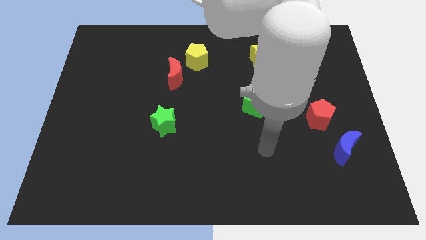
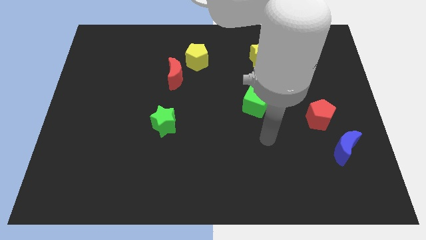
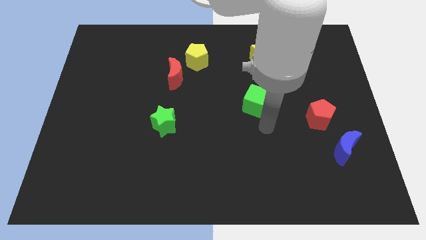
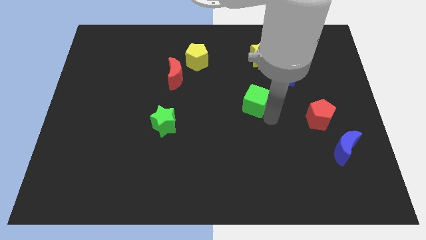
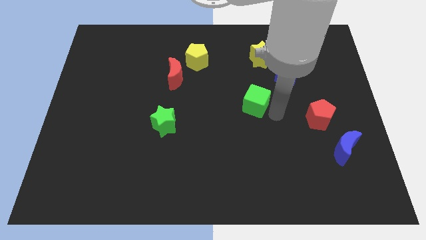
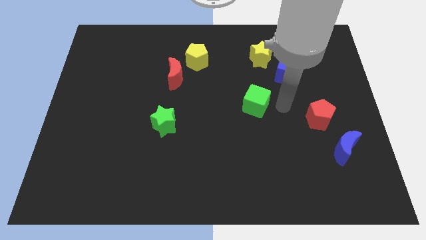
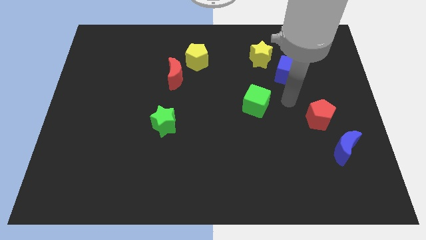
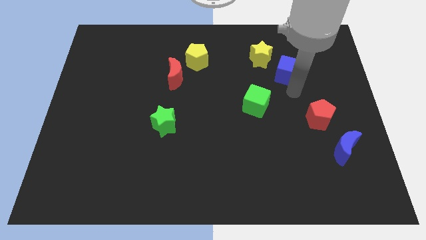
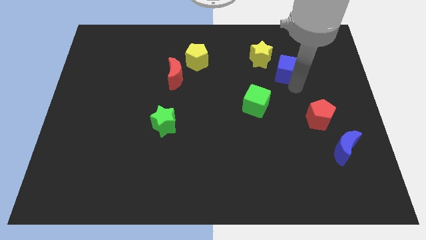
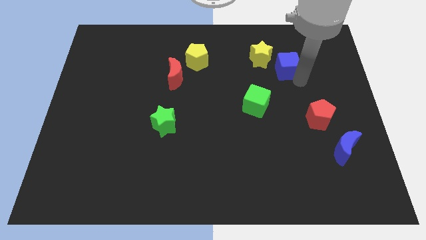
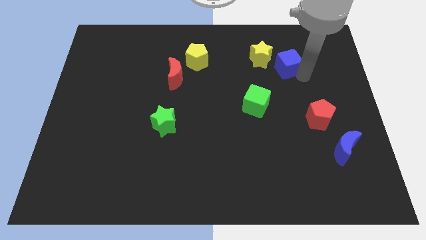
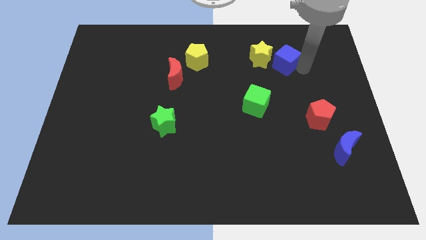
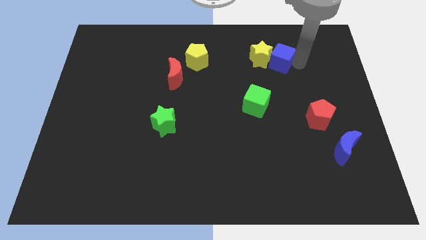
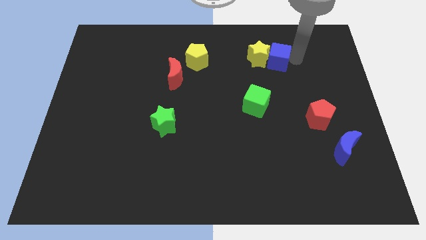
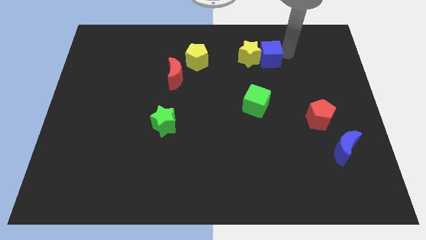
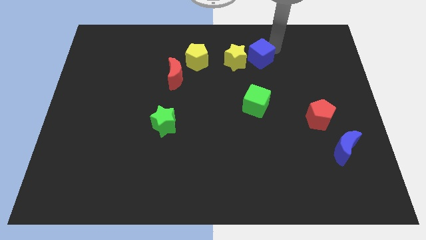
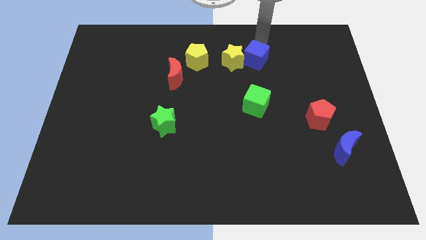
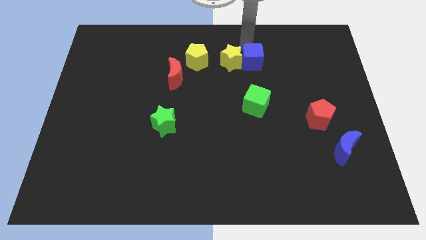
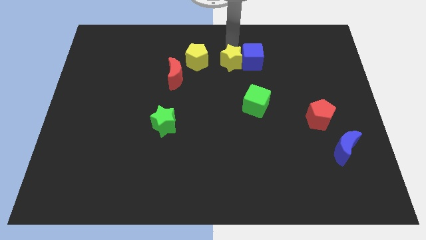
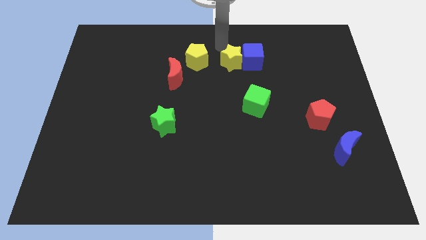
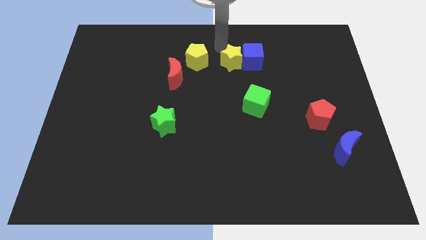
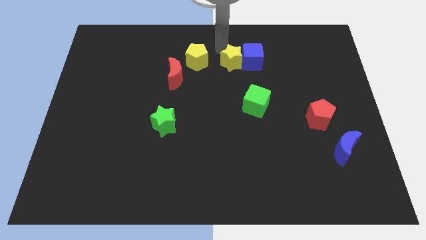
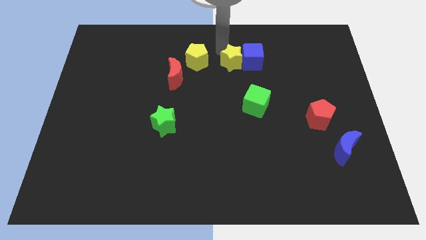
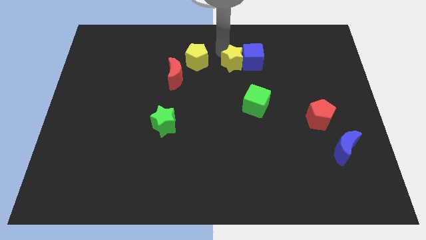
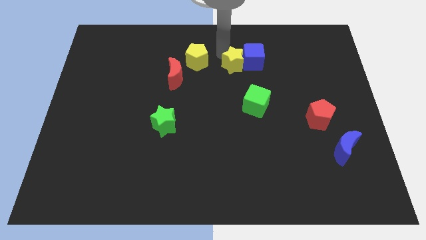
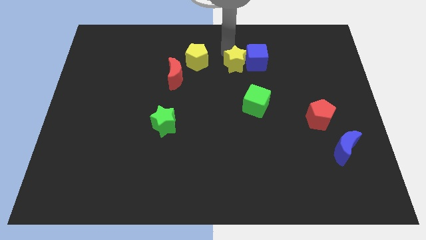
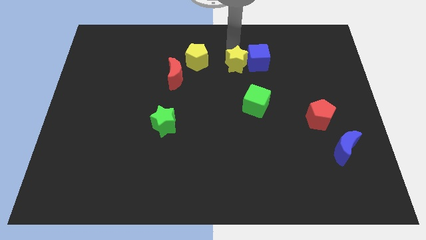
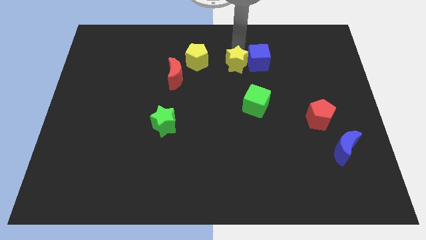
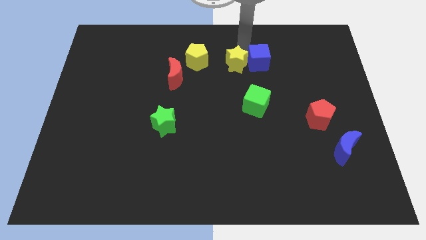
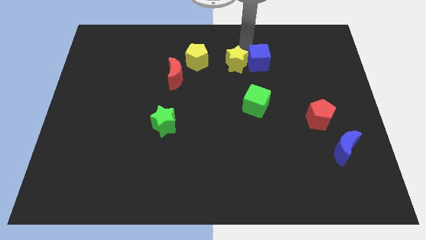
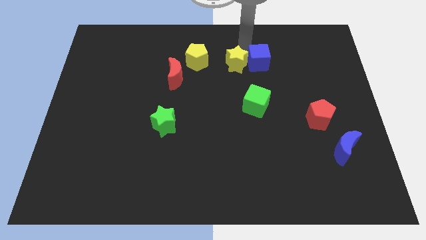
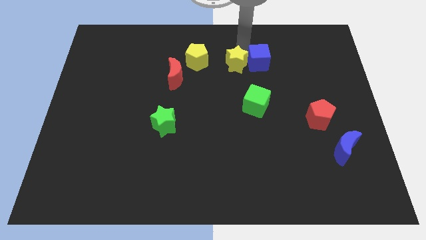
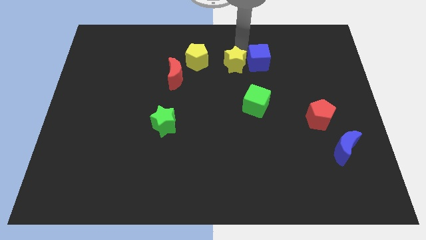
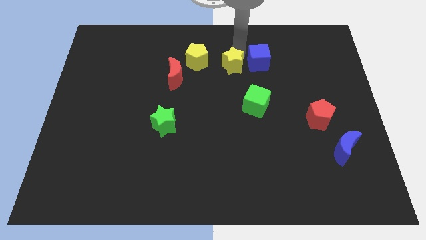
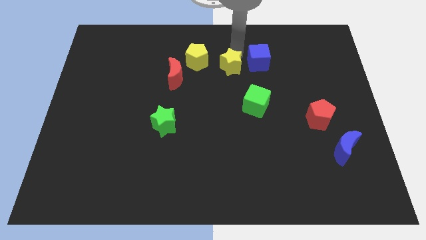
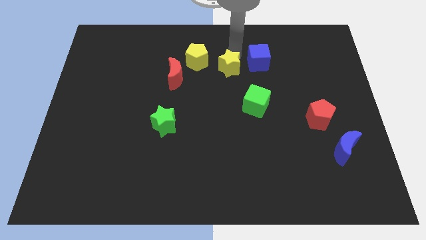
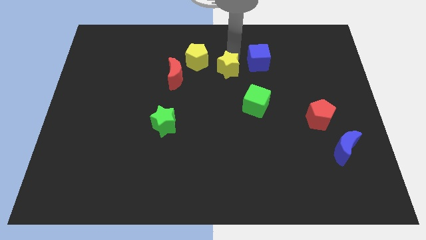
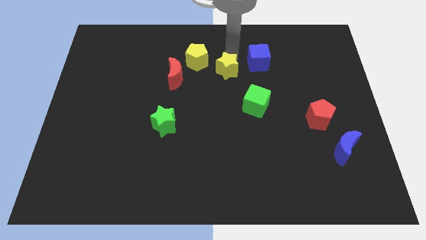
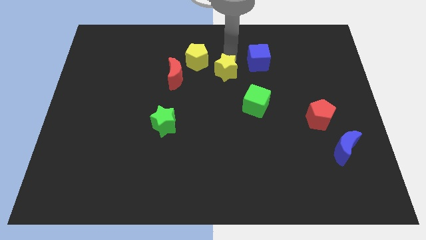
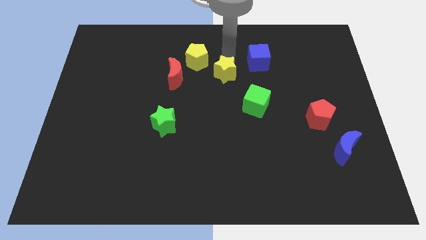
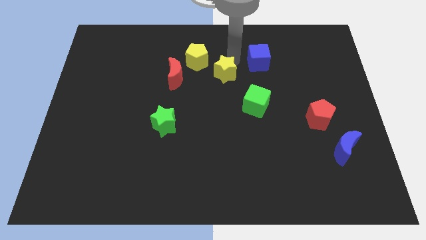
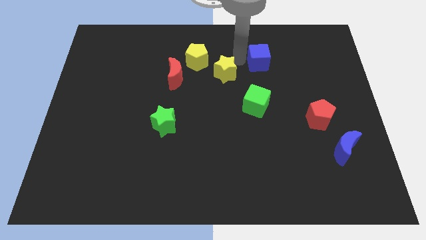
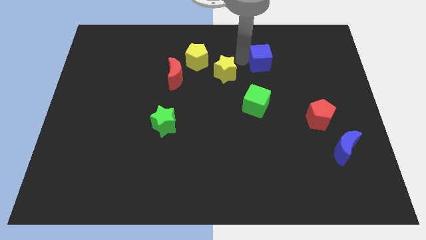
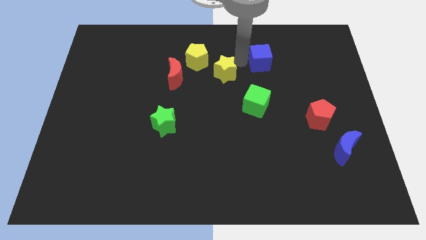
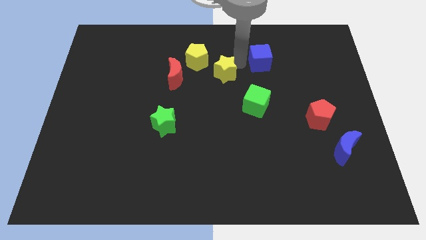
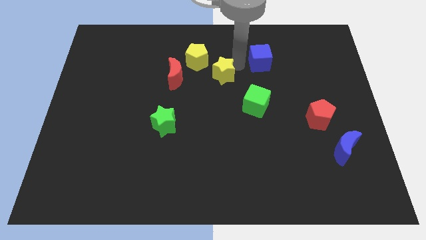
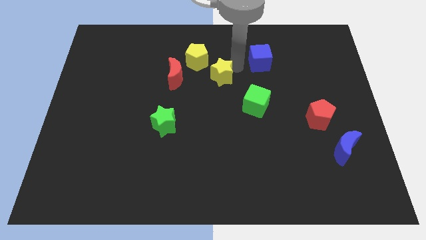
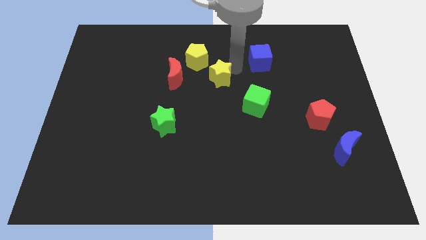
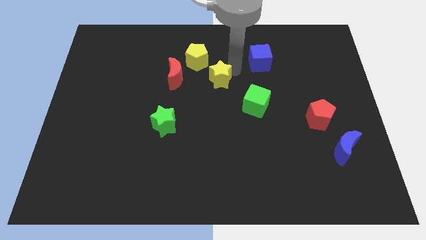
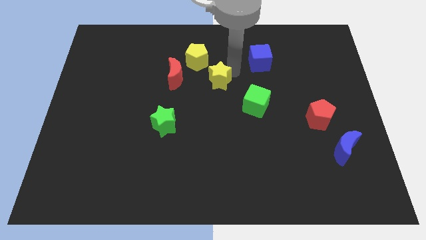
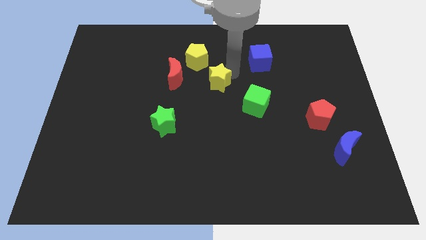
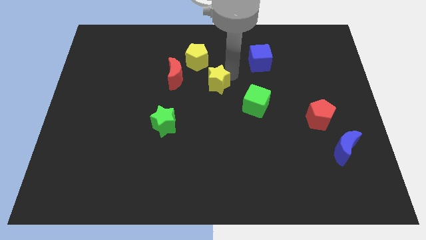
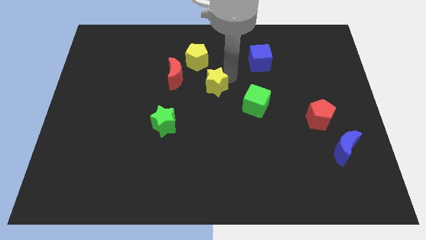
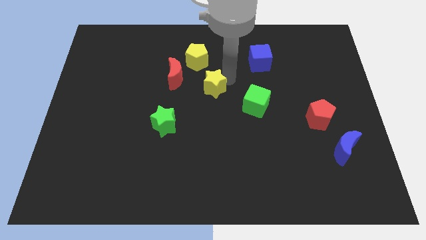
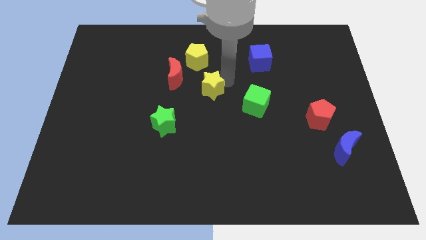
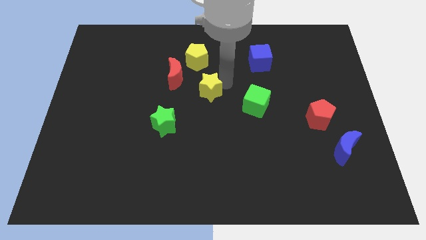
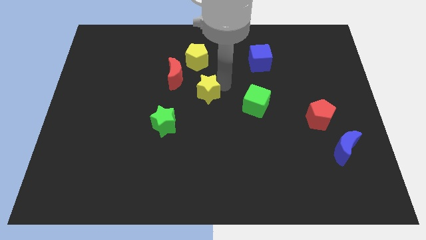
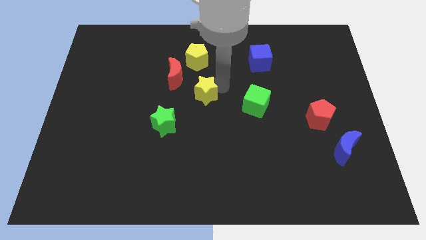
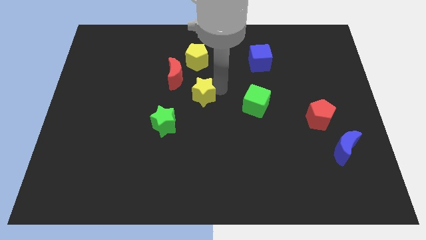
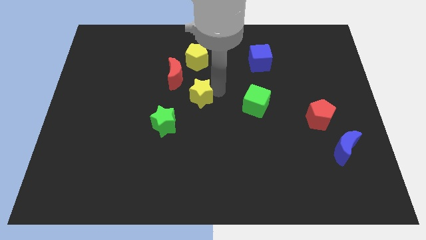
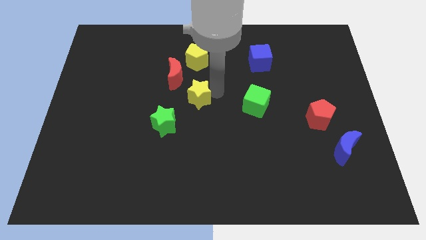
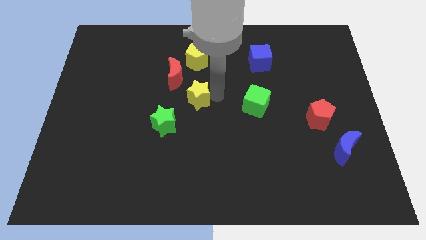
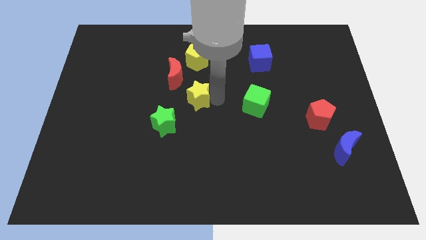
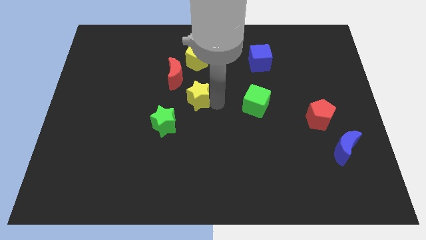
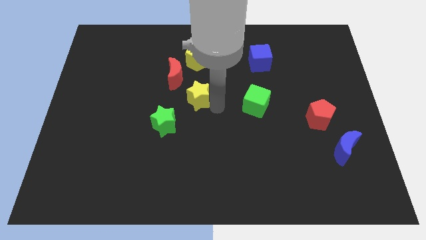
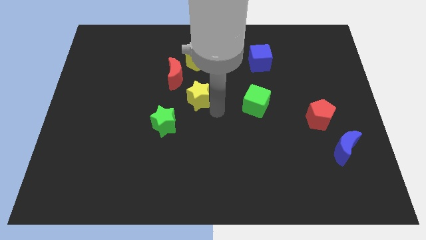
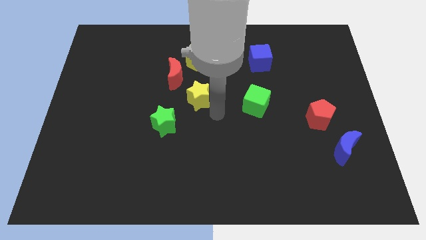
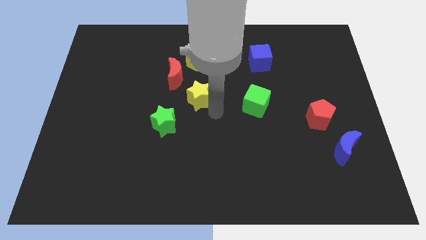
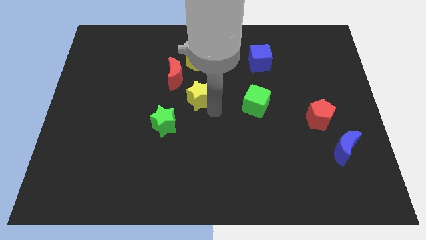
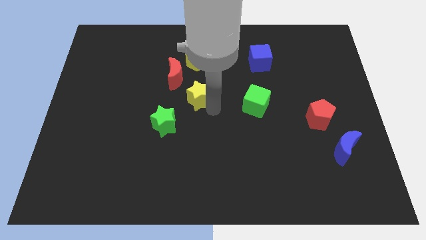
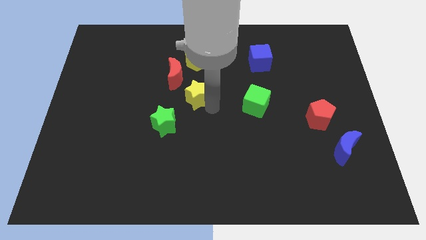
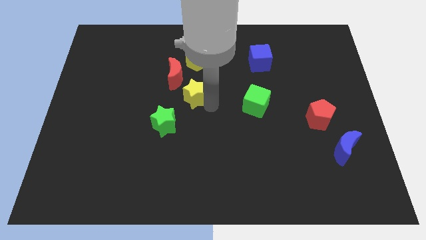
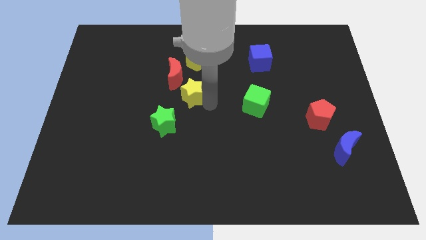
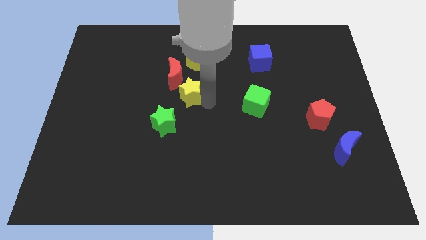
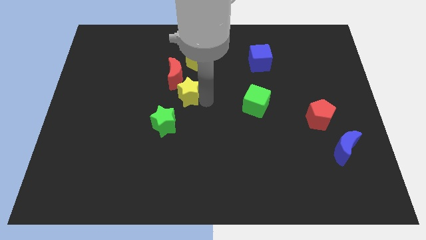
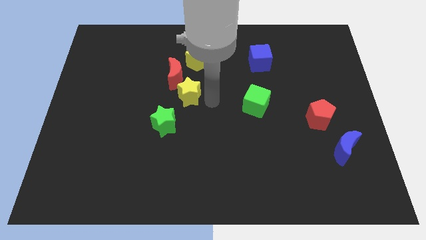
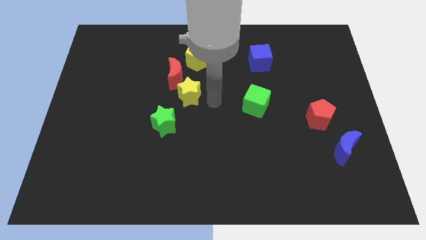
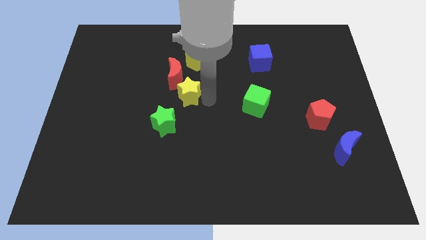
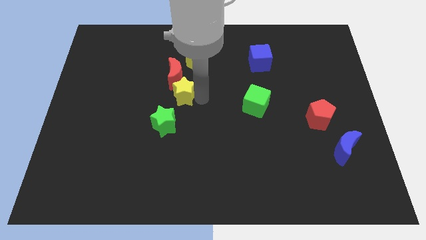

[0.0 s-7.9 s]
slide the yellow star above the green star
